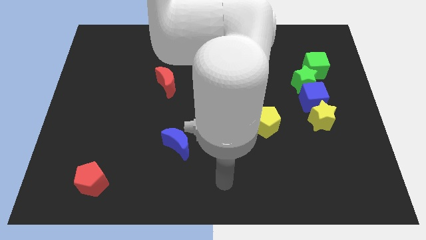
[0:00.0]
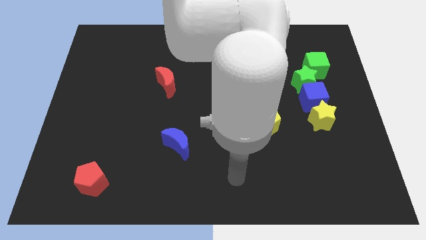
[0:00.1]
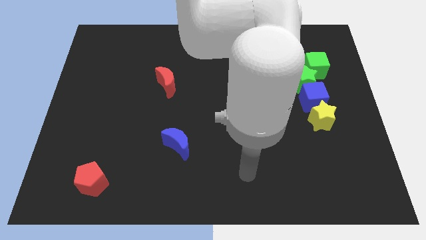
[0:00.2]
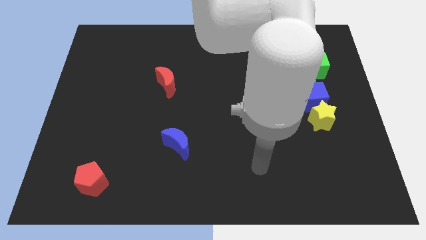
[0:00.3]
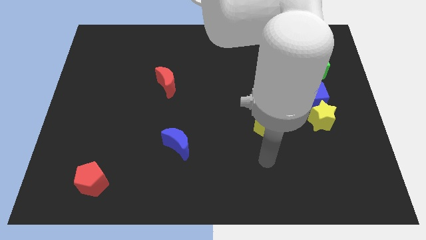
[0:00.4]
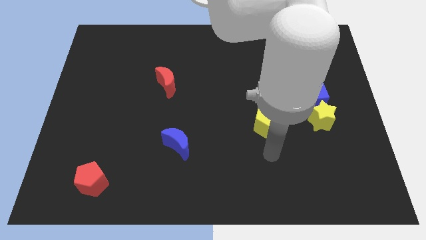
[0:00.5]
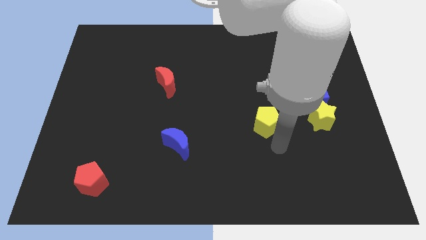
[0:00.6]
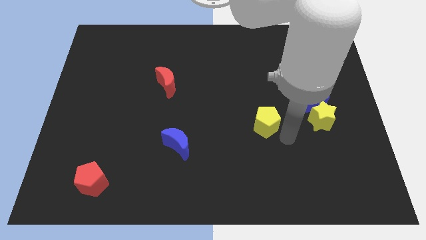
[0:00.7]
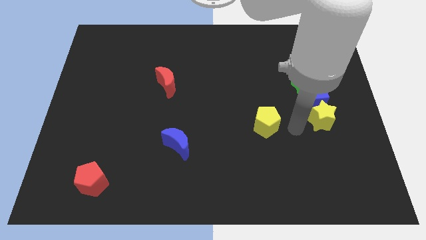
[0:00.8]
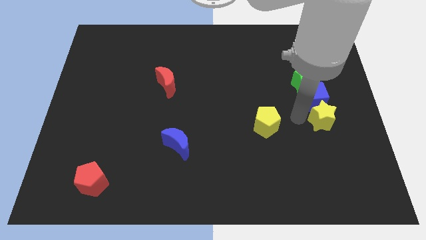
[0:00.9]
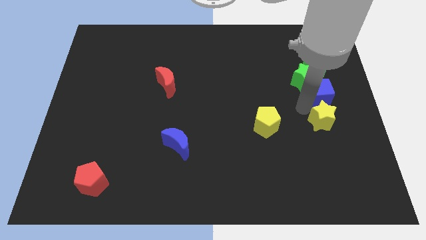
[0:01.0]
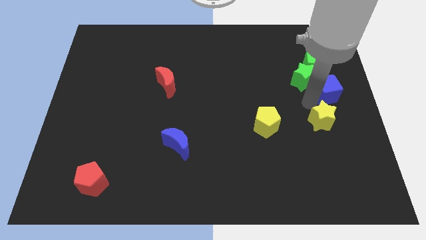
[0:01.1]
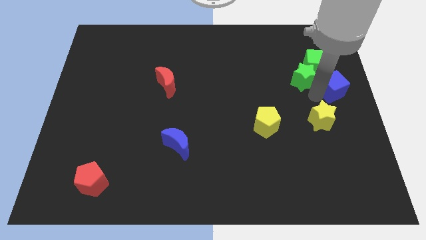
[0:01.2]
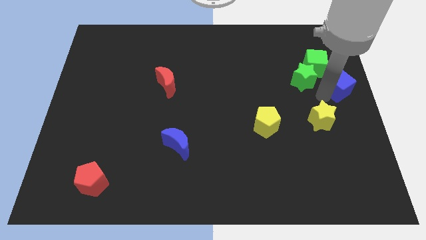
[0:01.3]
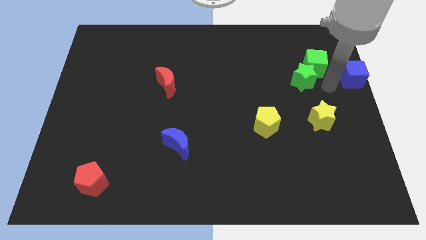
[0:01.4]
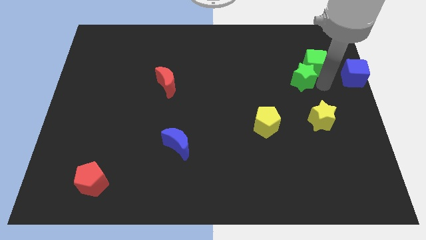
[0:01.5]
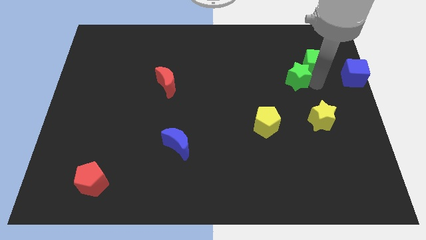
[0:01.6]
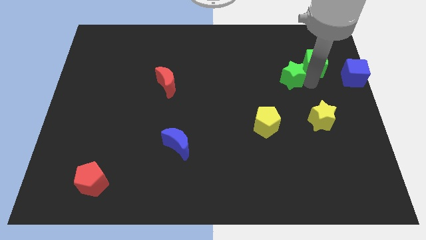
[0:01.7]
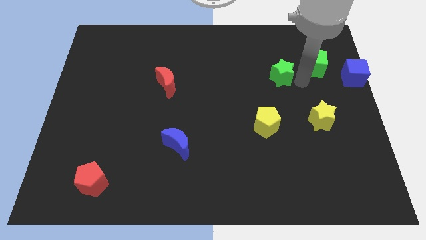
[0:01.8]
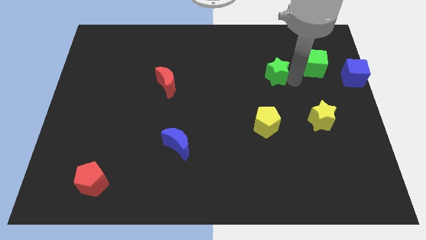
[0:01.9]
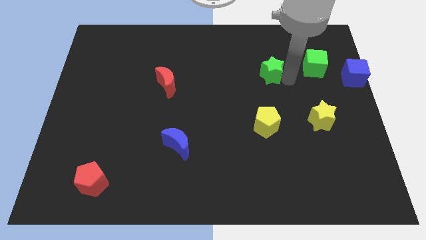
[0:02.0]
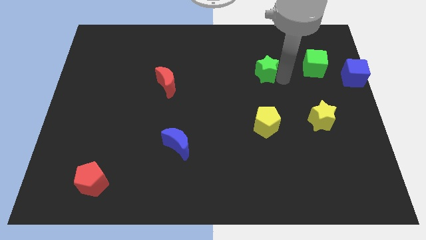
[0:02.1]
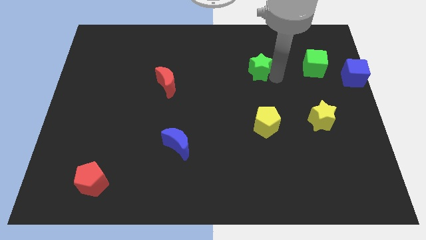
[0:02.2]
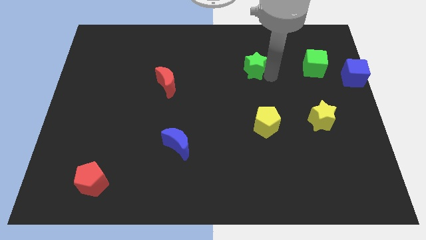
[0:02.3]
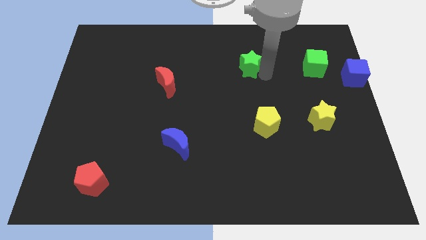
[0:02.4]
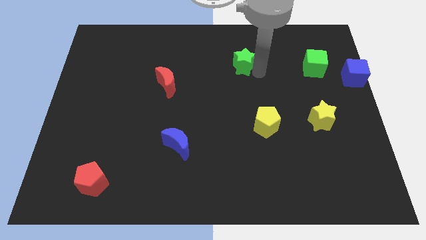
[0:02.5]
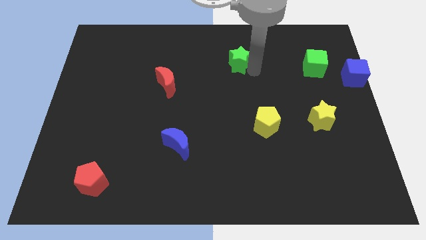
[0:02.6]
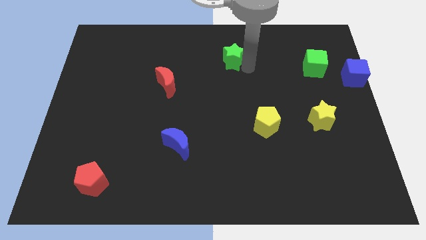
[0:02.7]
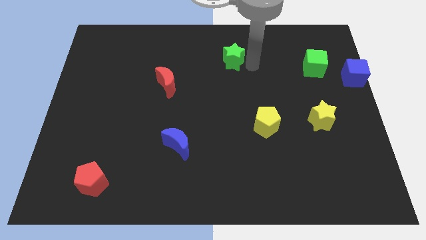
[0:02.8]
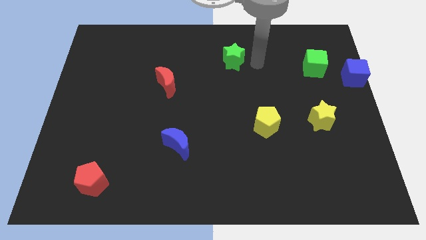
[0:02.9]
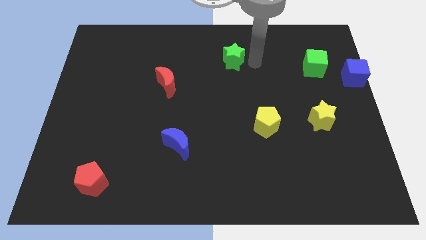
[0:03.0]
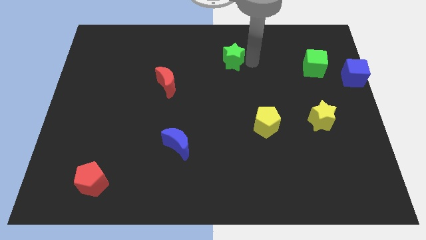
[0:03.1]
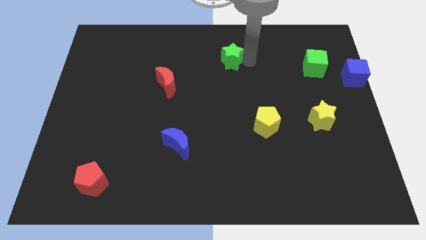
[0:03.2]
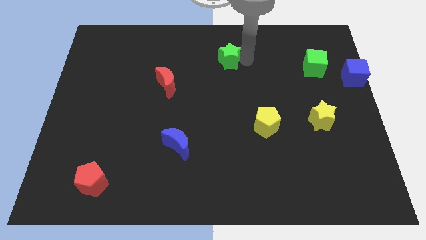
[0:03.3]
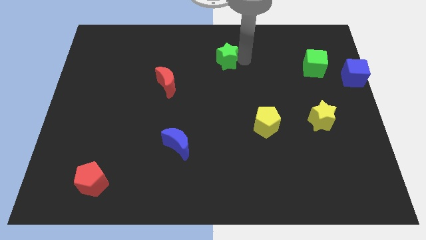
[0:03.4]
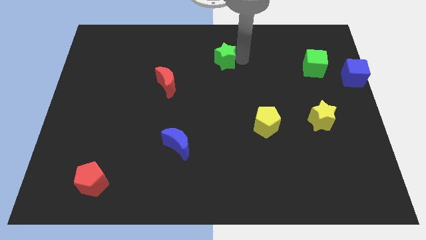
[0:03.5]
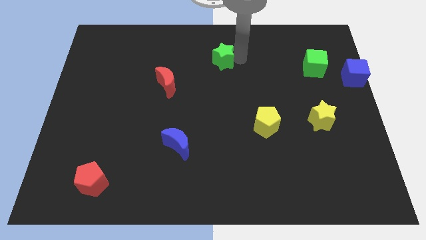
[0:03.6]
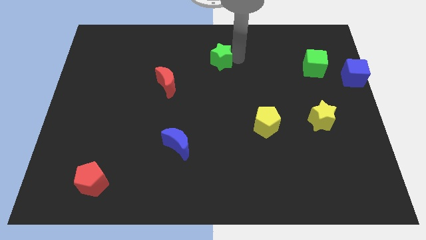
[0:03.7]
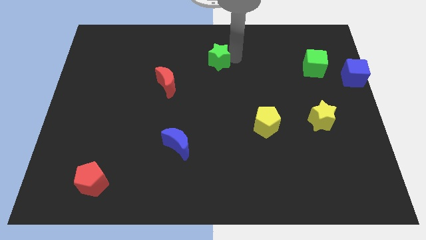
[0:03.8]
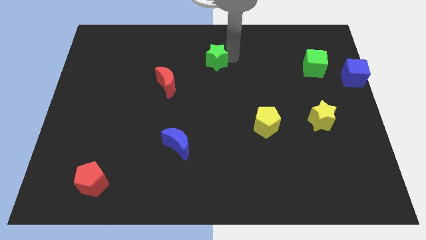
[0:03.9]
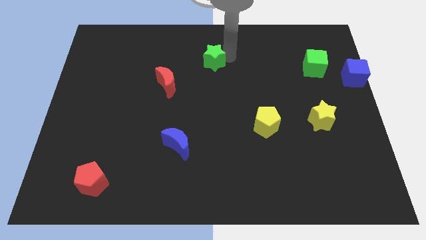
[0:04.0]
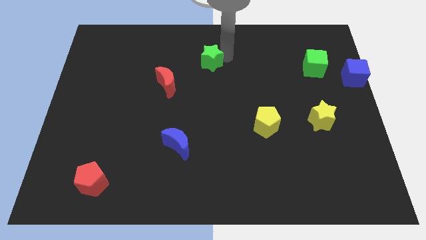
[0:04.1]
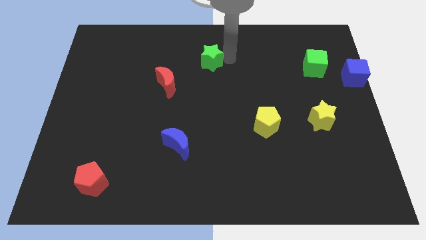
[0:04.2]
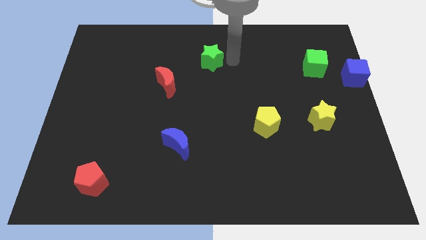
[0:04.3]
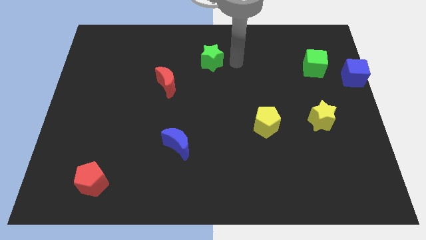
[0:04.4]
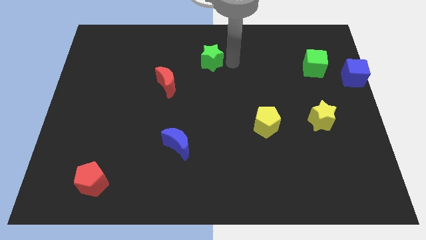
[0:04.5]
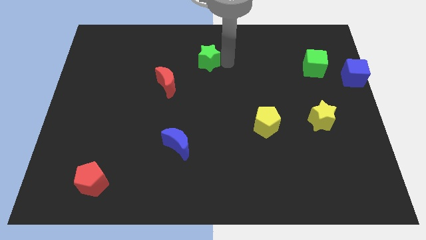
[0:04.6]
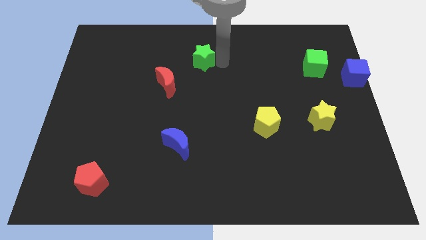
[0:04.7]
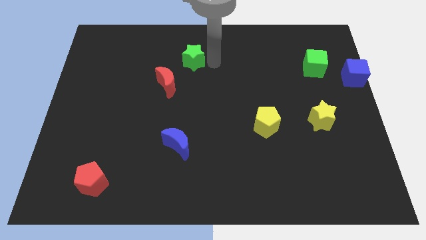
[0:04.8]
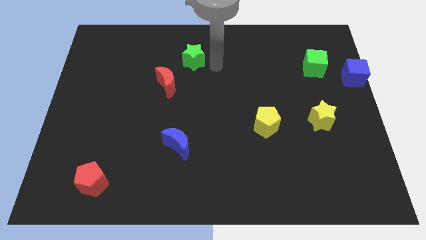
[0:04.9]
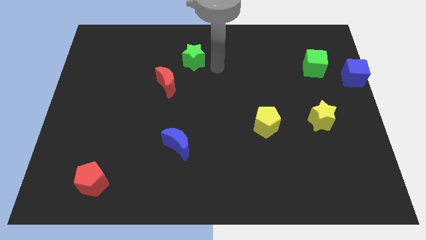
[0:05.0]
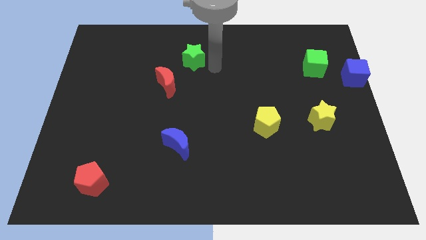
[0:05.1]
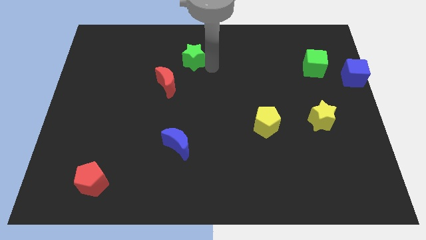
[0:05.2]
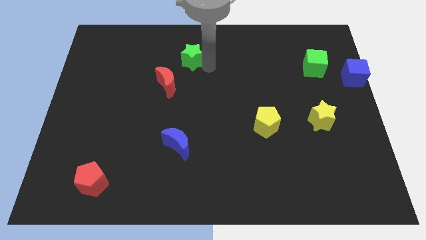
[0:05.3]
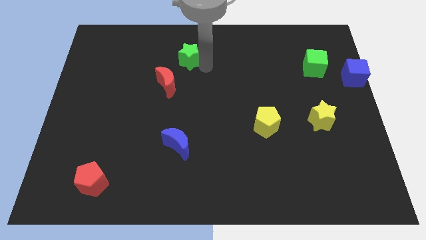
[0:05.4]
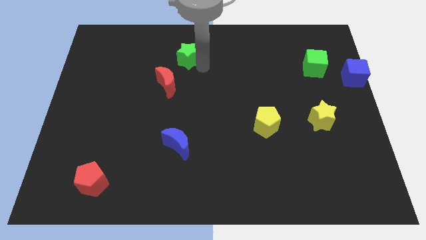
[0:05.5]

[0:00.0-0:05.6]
move the green star to the top side of the red moon

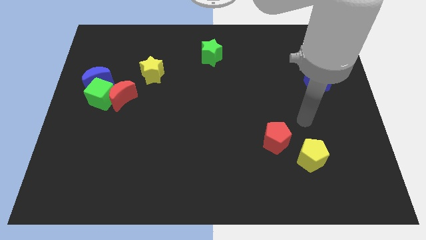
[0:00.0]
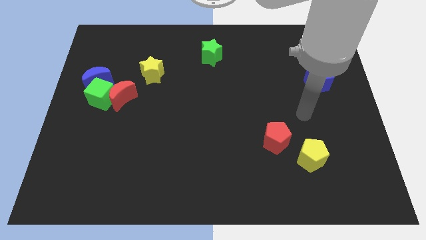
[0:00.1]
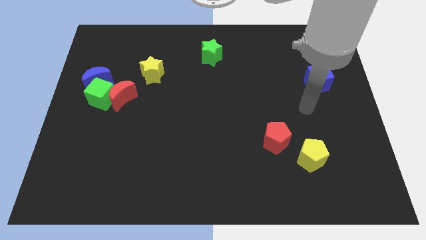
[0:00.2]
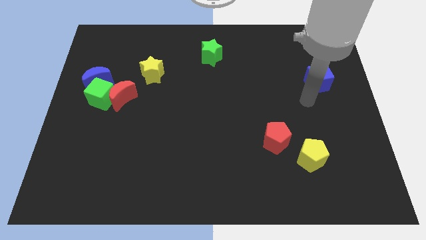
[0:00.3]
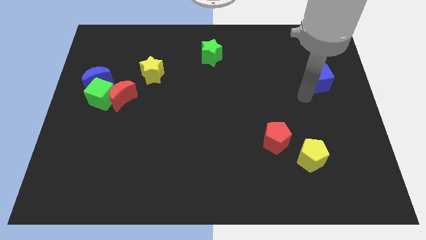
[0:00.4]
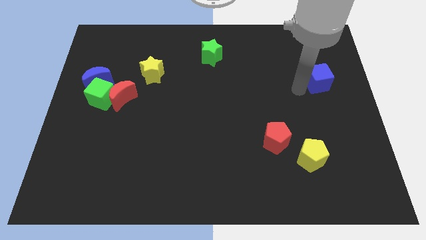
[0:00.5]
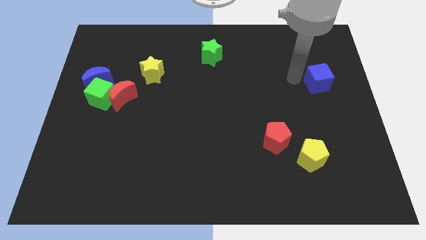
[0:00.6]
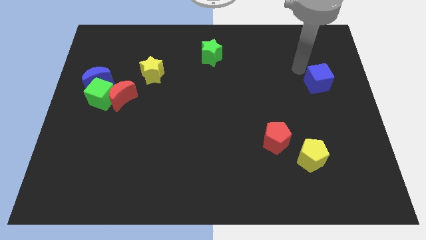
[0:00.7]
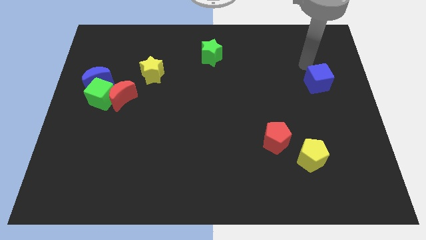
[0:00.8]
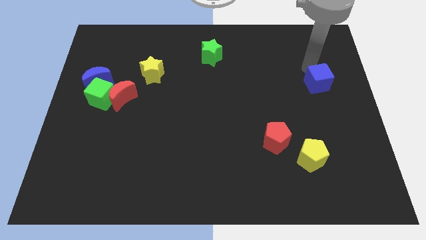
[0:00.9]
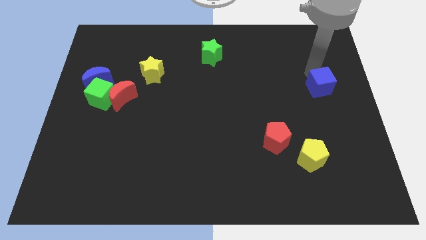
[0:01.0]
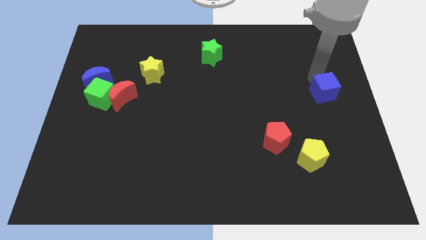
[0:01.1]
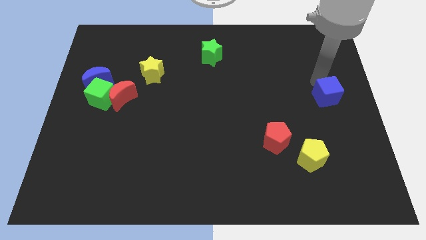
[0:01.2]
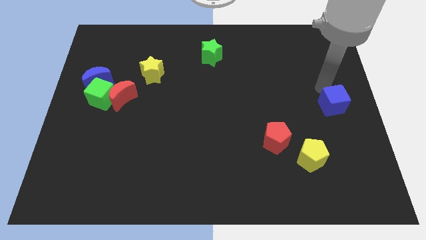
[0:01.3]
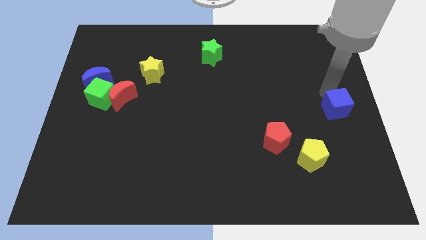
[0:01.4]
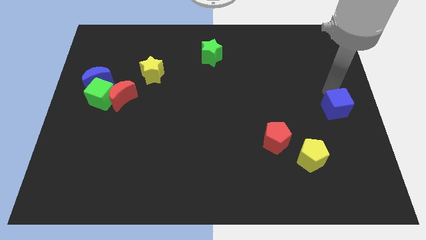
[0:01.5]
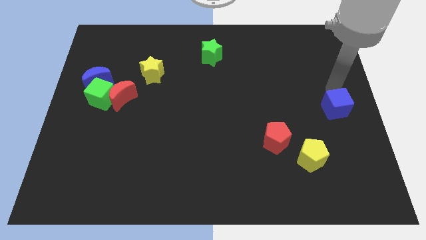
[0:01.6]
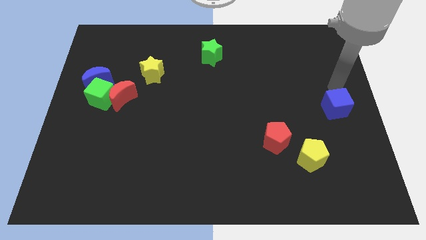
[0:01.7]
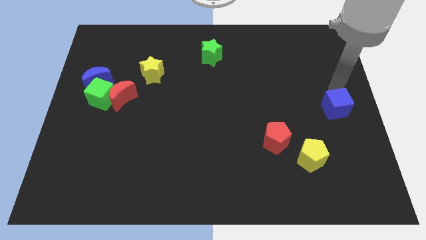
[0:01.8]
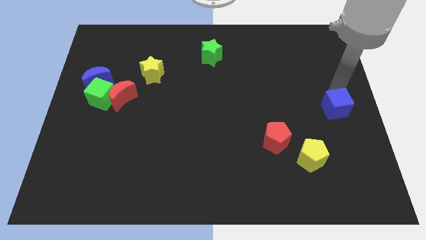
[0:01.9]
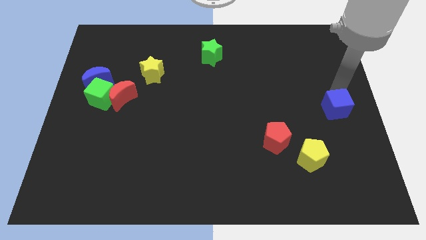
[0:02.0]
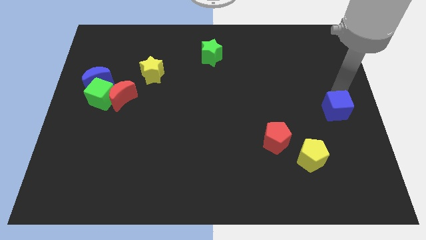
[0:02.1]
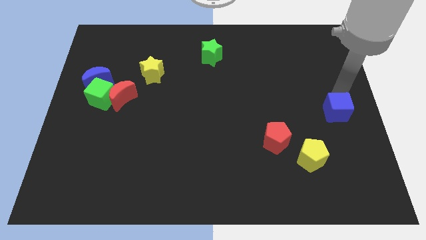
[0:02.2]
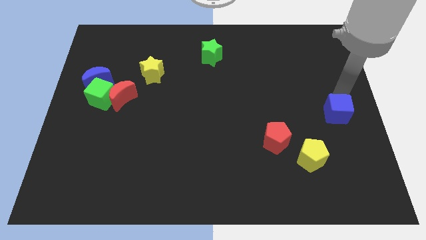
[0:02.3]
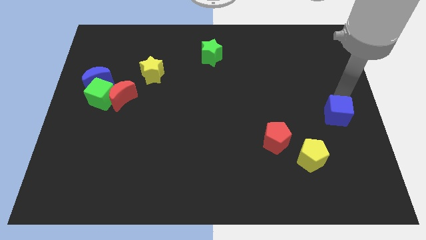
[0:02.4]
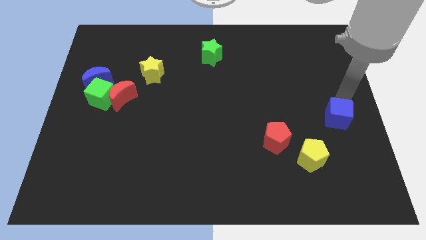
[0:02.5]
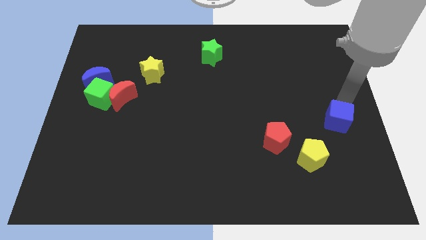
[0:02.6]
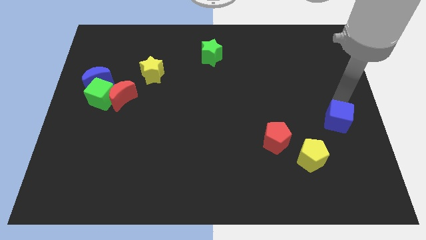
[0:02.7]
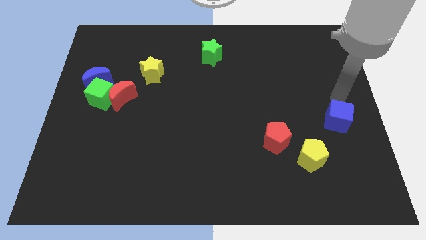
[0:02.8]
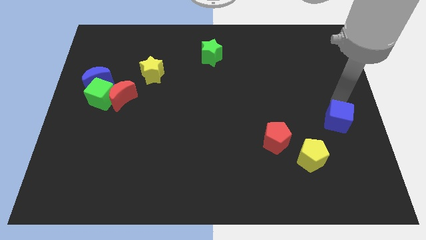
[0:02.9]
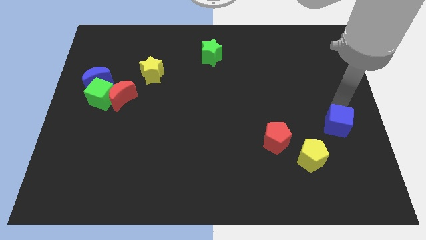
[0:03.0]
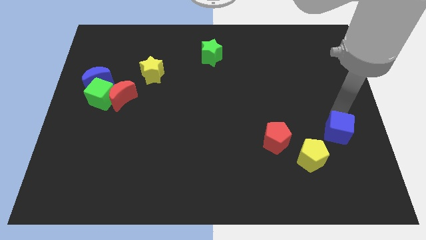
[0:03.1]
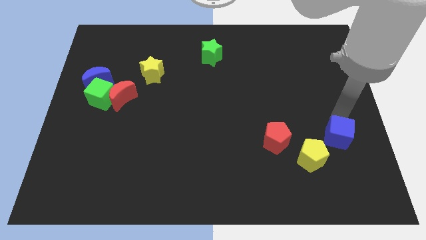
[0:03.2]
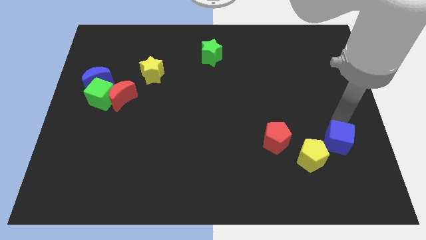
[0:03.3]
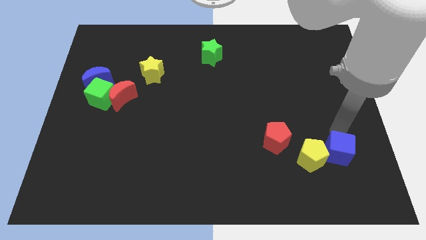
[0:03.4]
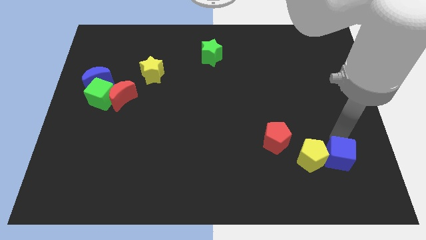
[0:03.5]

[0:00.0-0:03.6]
put the blue cube to the bottom right side of the yellow pentagon
